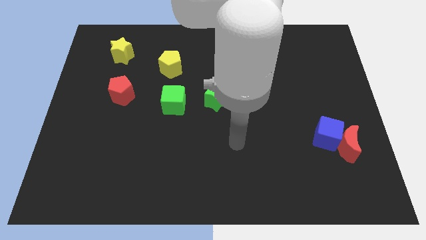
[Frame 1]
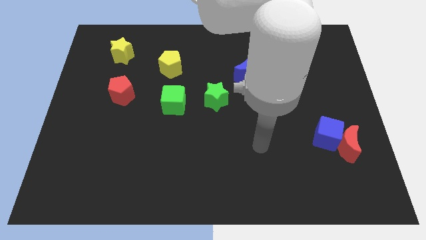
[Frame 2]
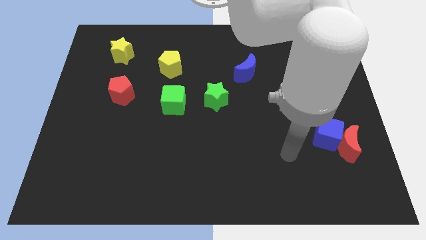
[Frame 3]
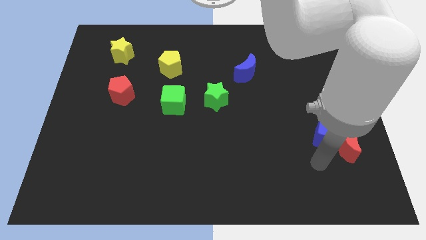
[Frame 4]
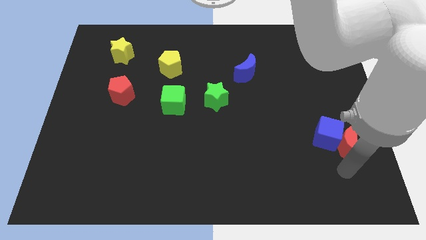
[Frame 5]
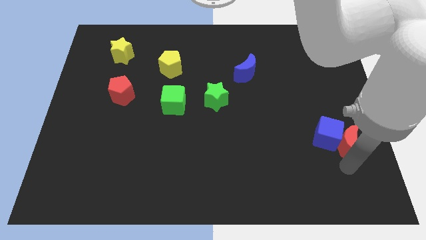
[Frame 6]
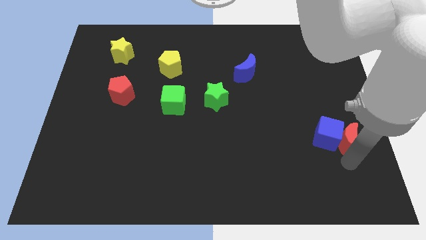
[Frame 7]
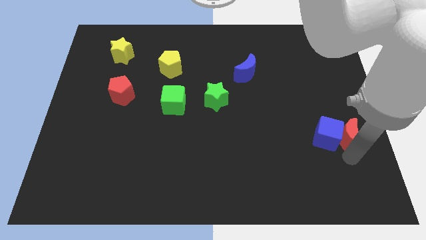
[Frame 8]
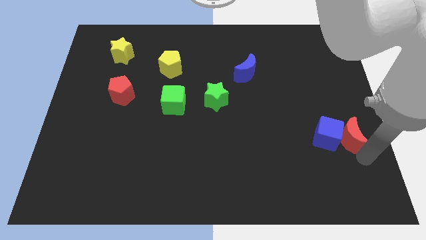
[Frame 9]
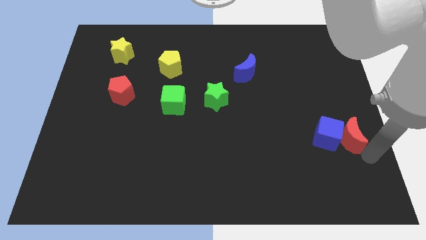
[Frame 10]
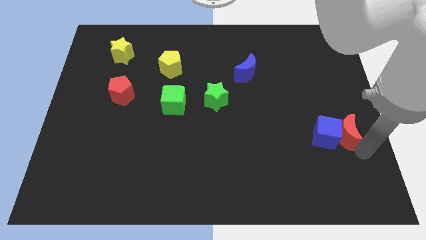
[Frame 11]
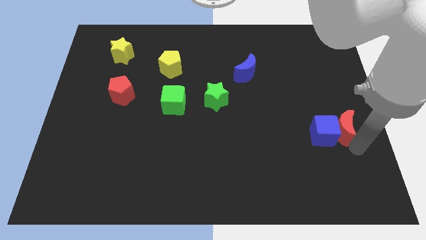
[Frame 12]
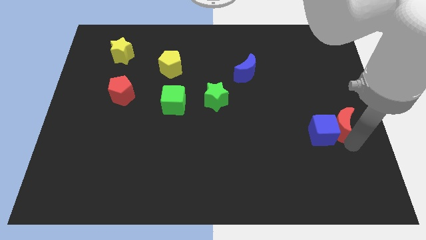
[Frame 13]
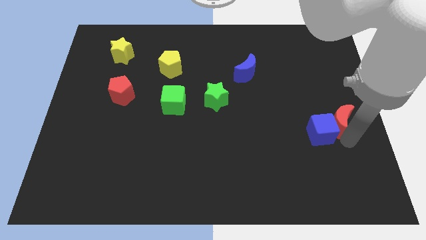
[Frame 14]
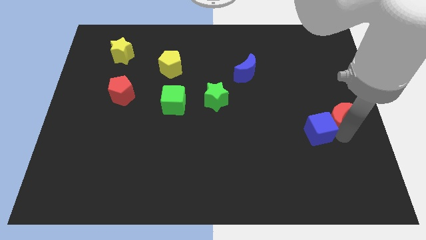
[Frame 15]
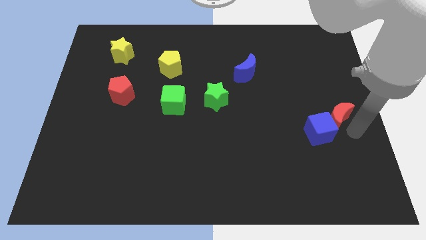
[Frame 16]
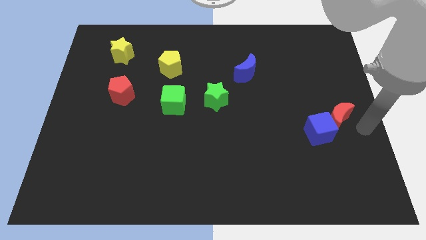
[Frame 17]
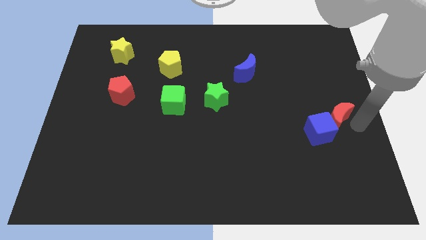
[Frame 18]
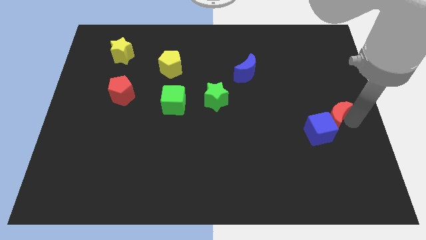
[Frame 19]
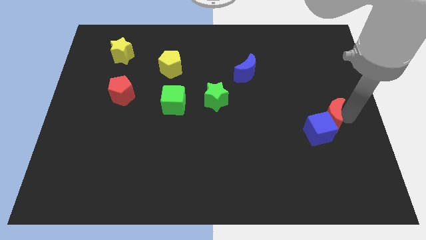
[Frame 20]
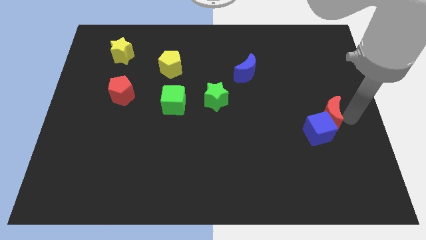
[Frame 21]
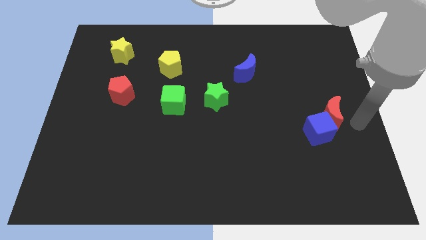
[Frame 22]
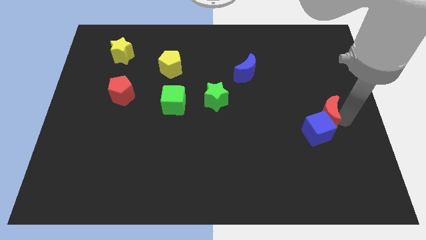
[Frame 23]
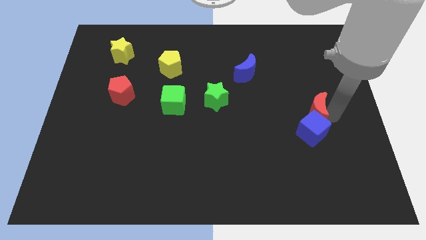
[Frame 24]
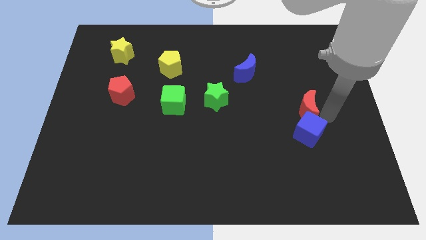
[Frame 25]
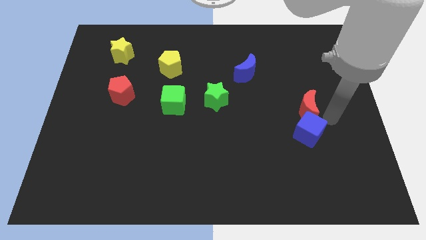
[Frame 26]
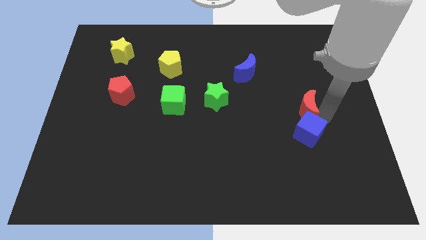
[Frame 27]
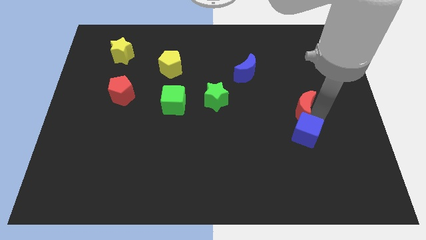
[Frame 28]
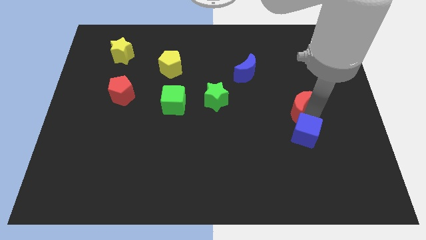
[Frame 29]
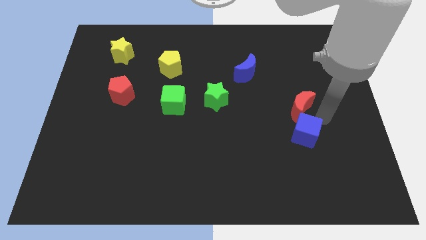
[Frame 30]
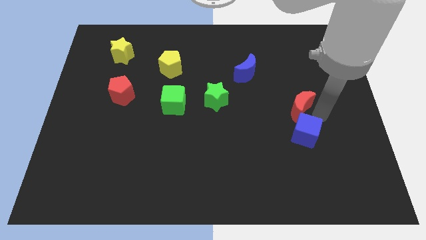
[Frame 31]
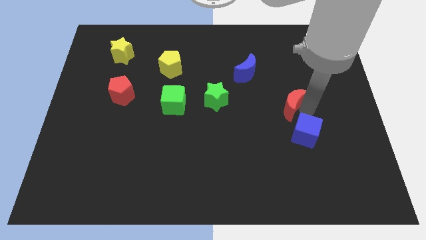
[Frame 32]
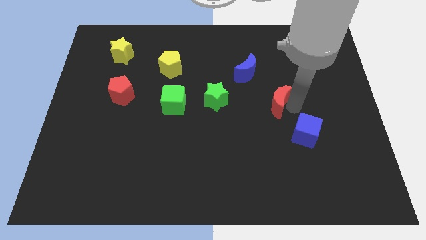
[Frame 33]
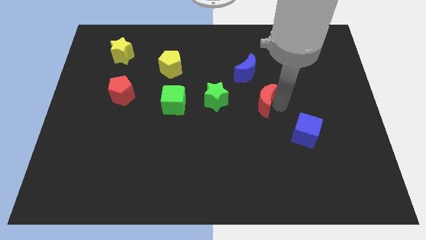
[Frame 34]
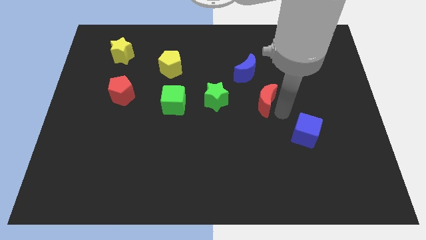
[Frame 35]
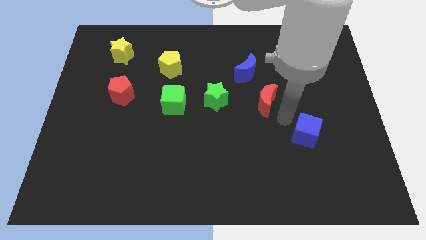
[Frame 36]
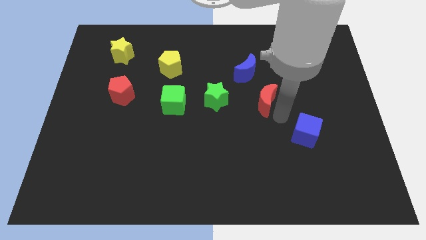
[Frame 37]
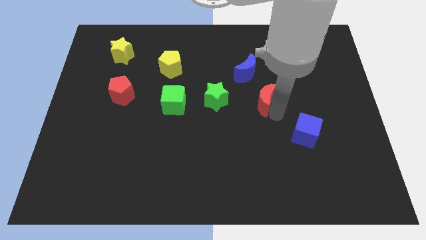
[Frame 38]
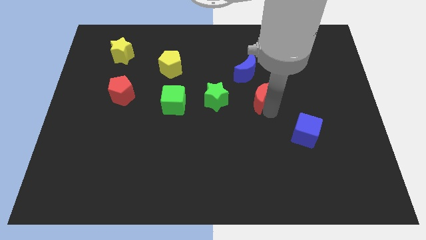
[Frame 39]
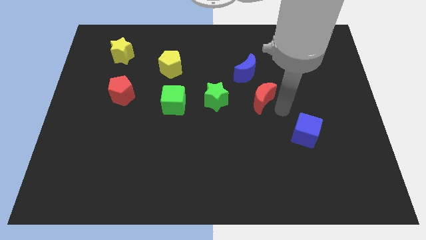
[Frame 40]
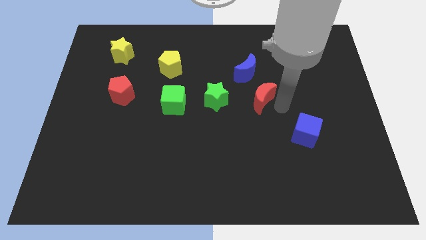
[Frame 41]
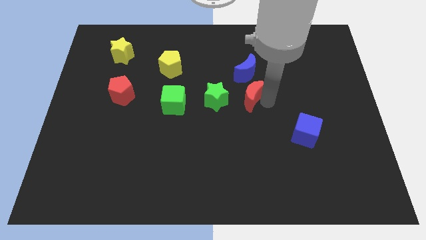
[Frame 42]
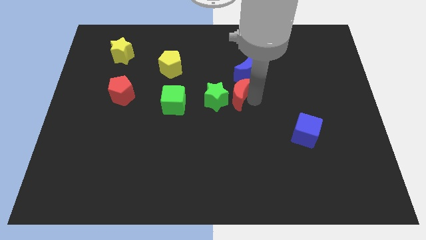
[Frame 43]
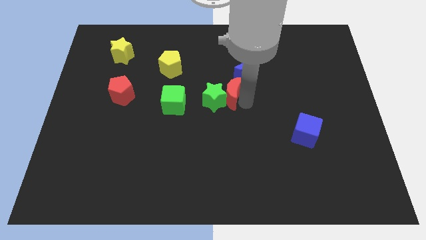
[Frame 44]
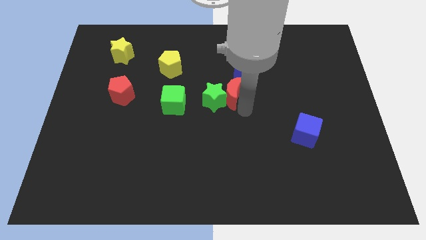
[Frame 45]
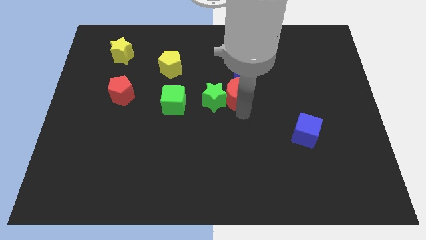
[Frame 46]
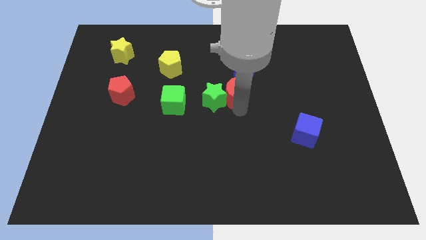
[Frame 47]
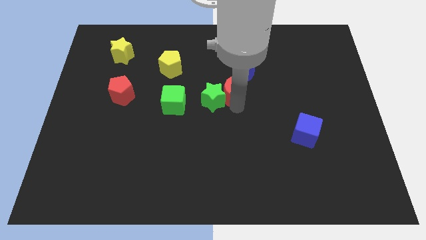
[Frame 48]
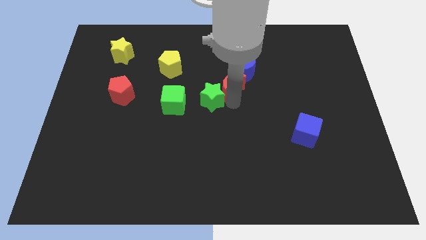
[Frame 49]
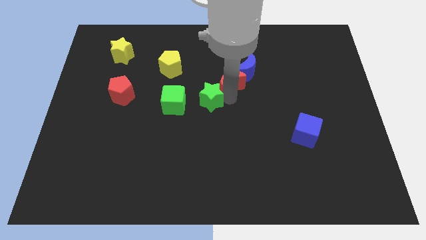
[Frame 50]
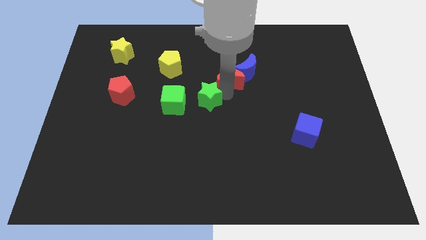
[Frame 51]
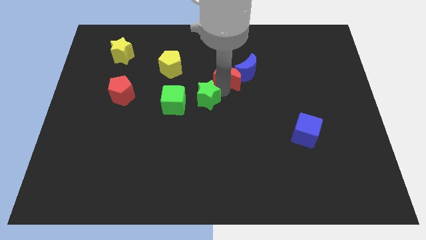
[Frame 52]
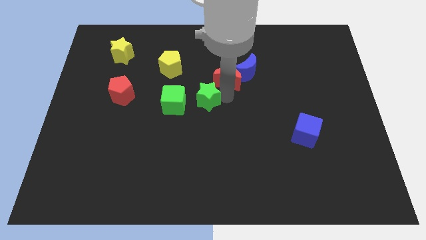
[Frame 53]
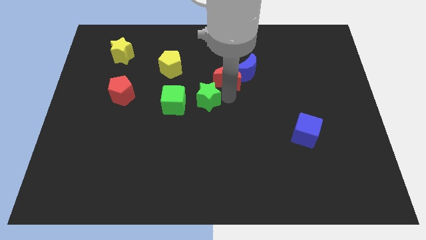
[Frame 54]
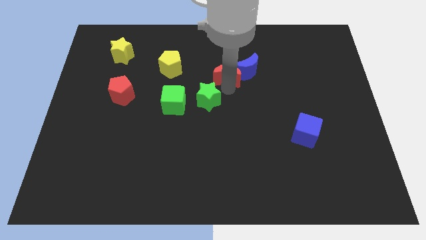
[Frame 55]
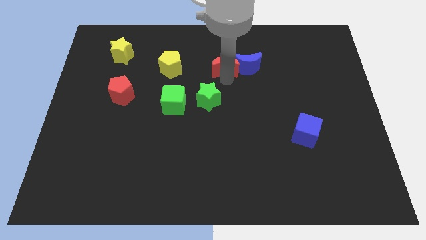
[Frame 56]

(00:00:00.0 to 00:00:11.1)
slide the red moon to the top left of the blue moon
